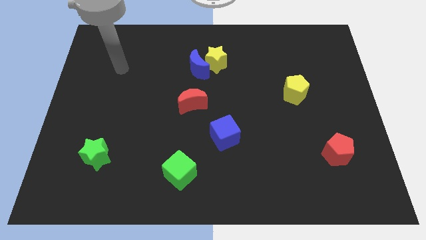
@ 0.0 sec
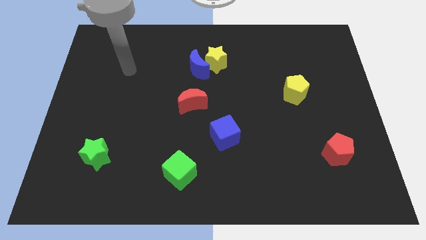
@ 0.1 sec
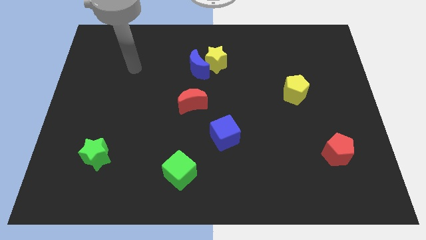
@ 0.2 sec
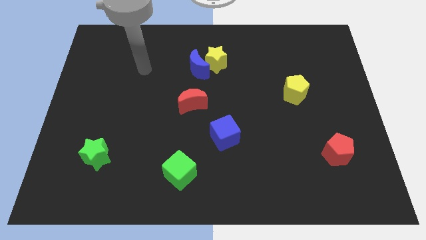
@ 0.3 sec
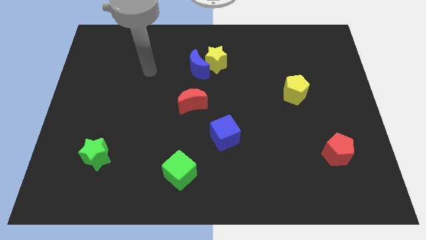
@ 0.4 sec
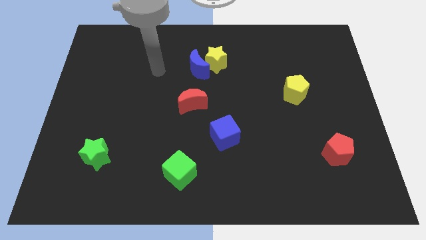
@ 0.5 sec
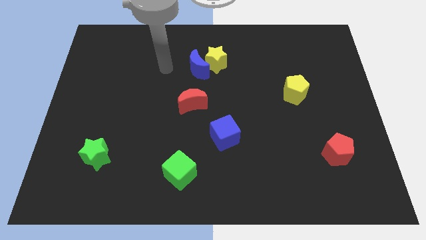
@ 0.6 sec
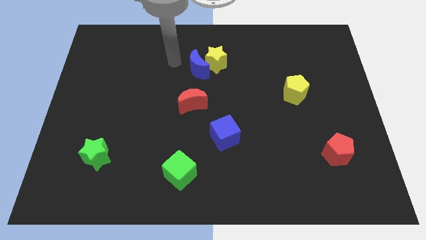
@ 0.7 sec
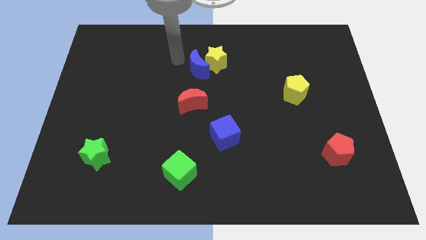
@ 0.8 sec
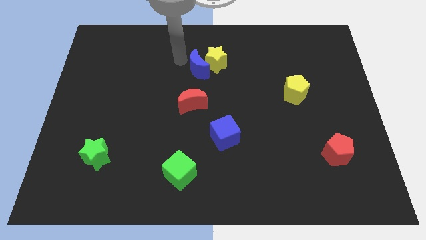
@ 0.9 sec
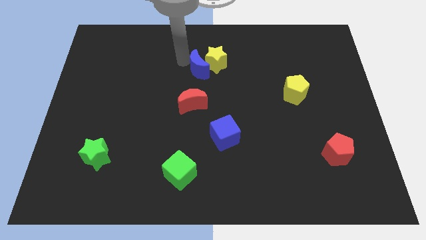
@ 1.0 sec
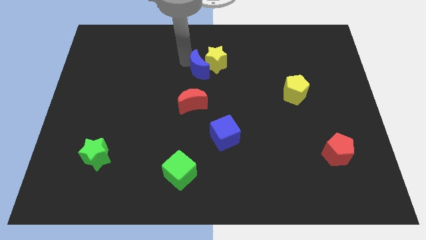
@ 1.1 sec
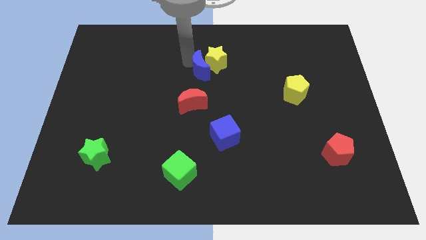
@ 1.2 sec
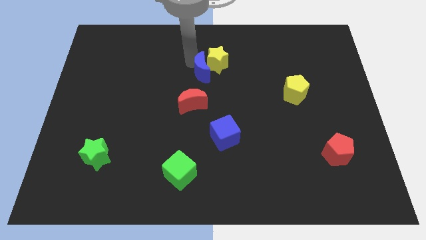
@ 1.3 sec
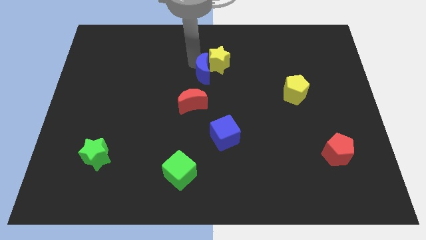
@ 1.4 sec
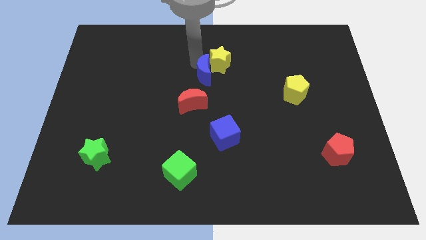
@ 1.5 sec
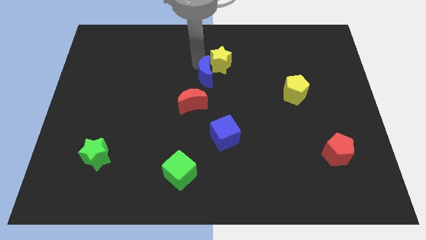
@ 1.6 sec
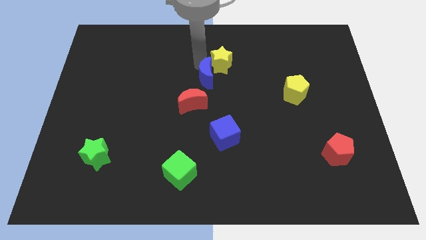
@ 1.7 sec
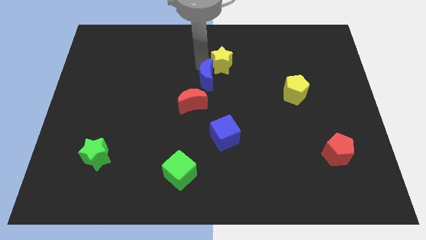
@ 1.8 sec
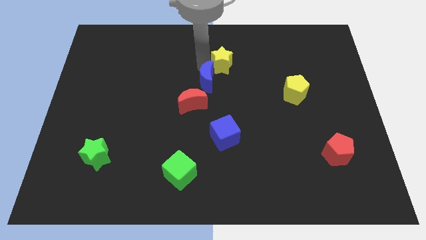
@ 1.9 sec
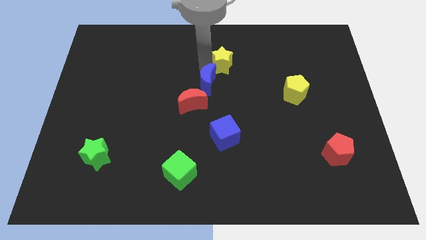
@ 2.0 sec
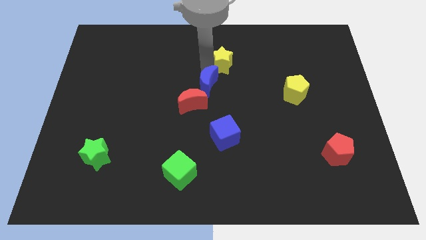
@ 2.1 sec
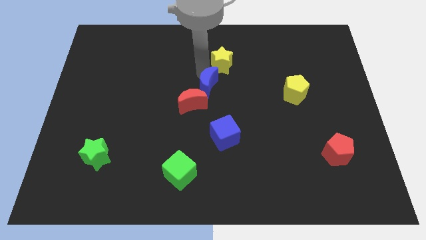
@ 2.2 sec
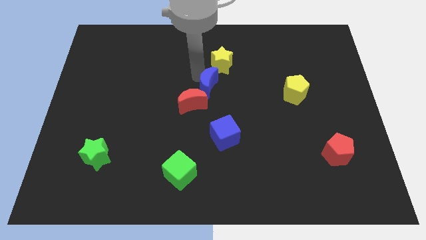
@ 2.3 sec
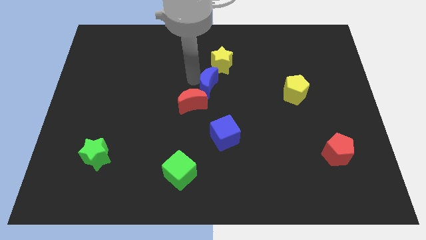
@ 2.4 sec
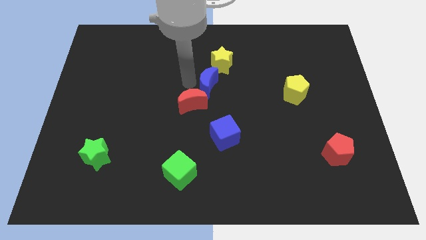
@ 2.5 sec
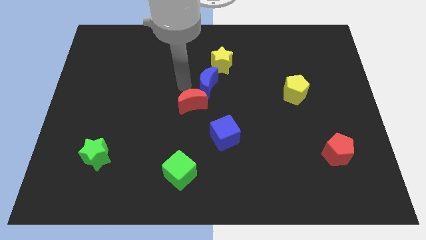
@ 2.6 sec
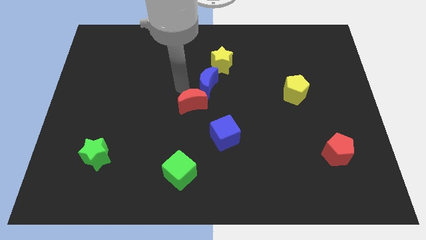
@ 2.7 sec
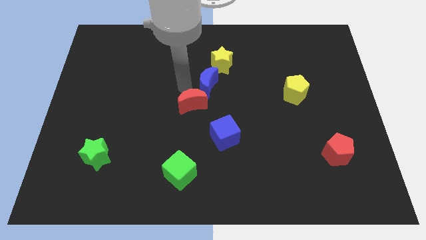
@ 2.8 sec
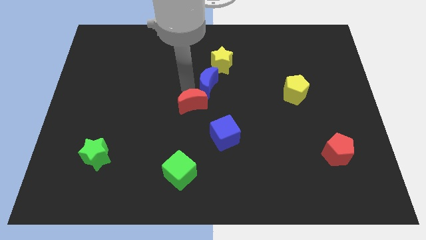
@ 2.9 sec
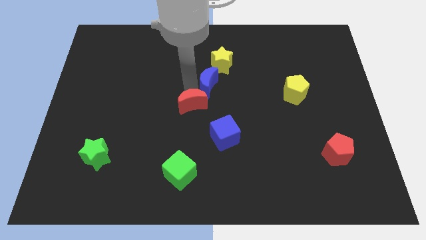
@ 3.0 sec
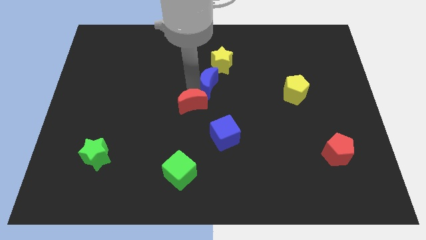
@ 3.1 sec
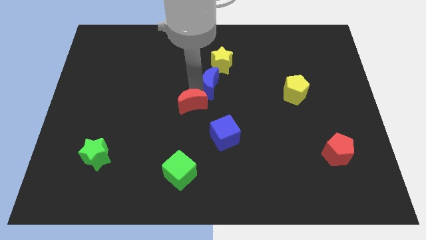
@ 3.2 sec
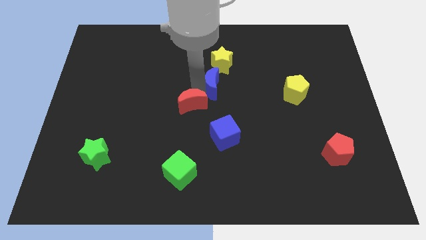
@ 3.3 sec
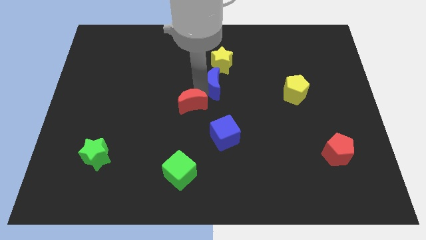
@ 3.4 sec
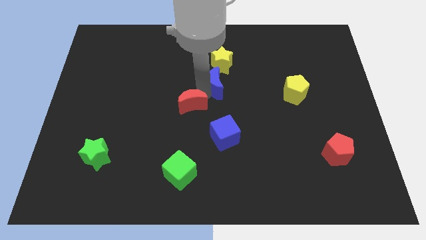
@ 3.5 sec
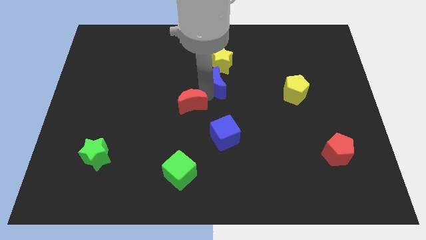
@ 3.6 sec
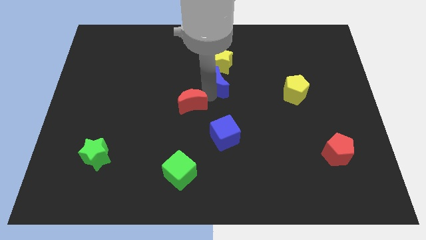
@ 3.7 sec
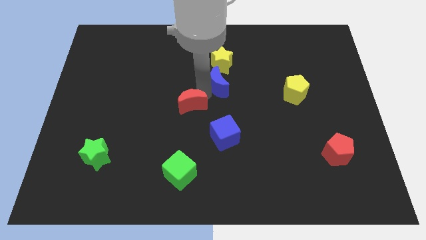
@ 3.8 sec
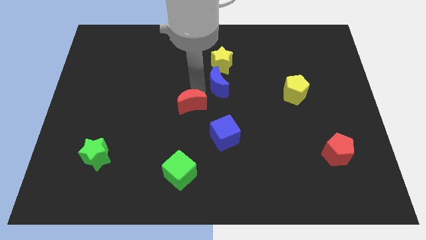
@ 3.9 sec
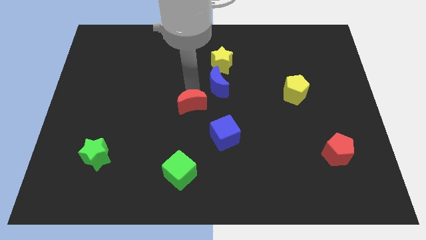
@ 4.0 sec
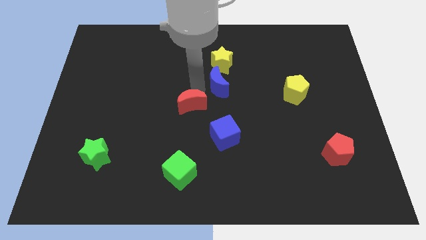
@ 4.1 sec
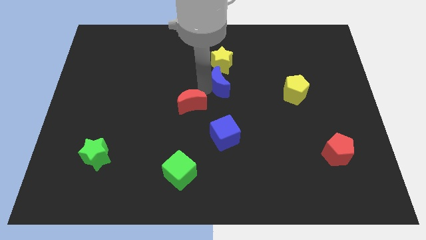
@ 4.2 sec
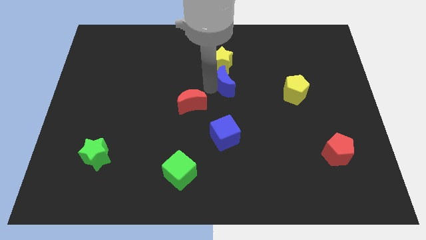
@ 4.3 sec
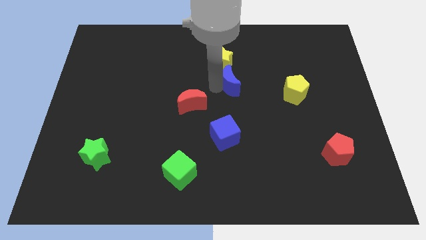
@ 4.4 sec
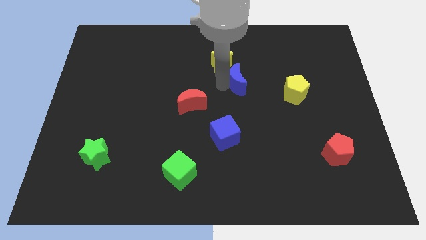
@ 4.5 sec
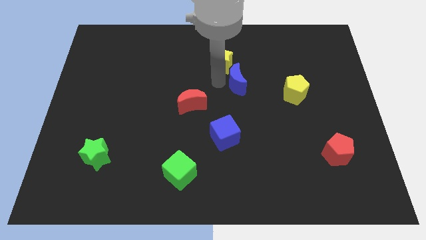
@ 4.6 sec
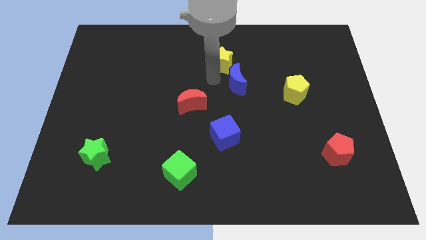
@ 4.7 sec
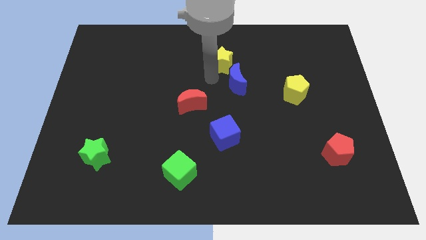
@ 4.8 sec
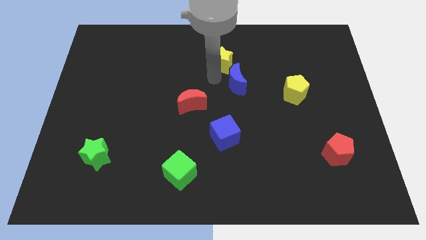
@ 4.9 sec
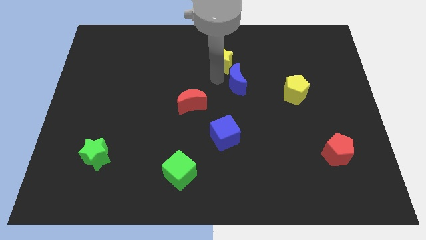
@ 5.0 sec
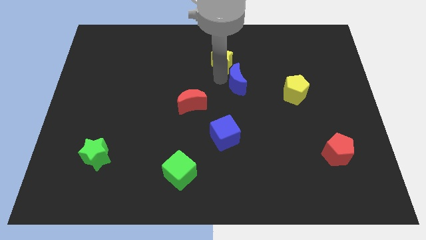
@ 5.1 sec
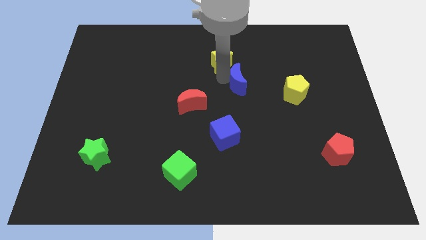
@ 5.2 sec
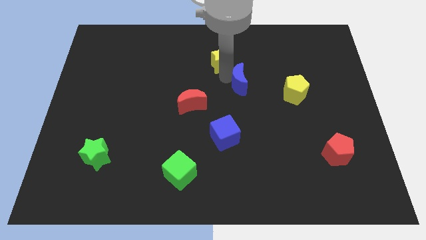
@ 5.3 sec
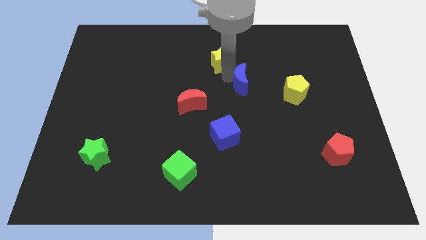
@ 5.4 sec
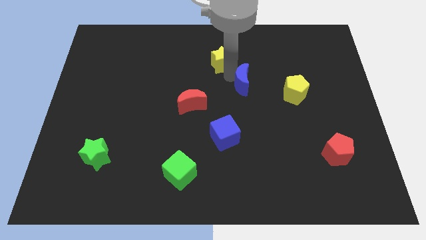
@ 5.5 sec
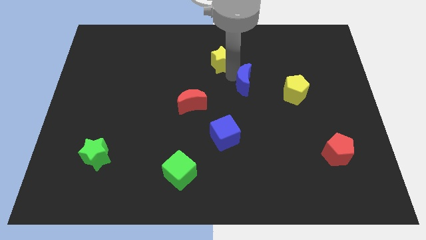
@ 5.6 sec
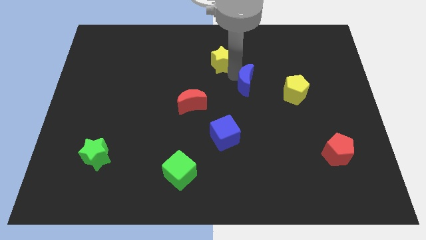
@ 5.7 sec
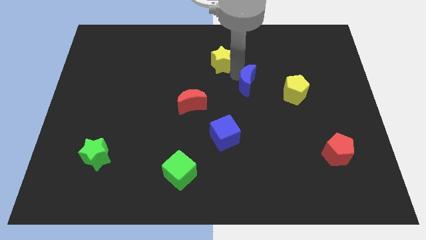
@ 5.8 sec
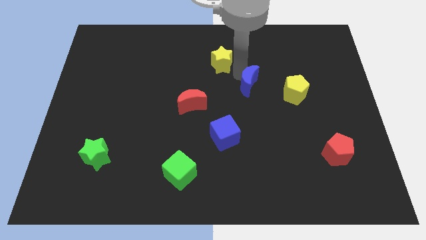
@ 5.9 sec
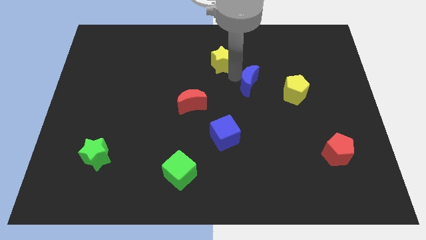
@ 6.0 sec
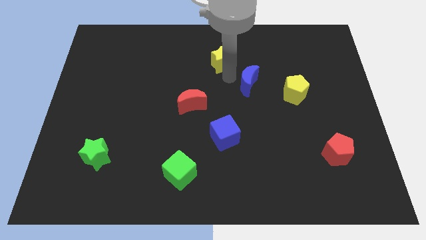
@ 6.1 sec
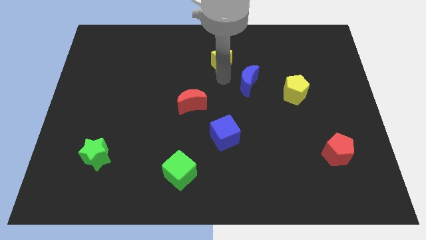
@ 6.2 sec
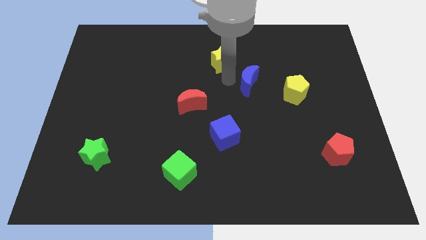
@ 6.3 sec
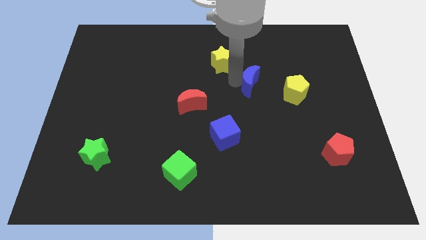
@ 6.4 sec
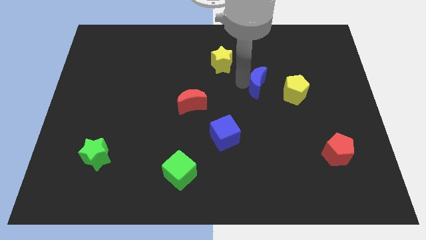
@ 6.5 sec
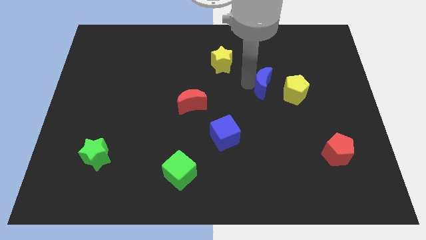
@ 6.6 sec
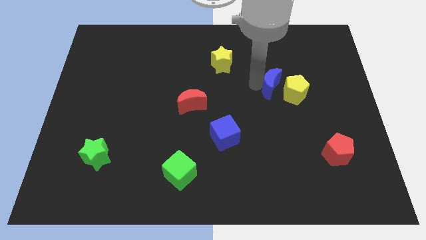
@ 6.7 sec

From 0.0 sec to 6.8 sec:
slide the blue moon towards the yellow pentagon

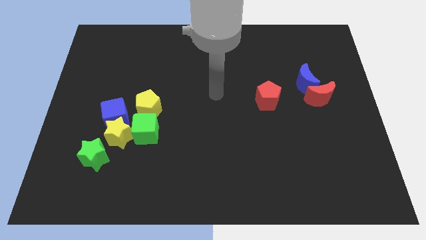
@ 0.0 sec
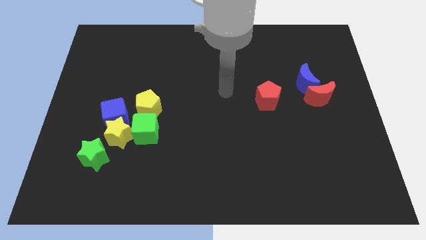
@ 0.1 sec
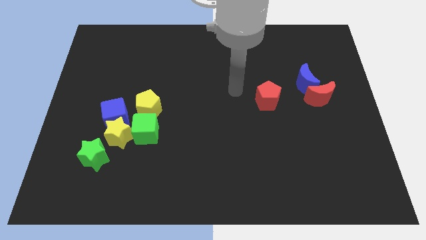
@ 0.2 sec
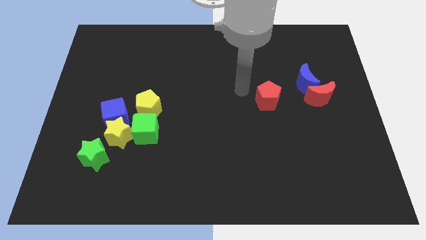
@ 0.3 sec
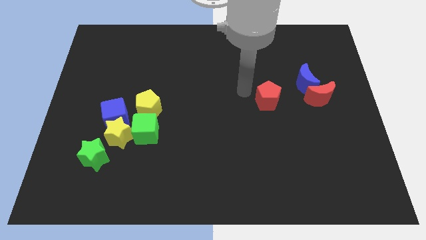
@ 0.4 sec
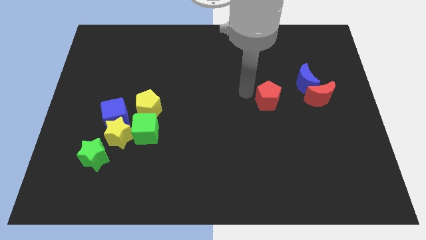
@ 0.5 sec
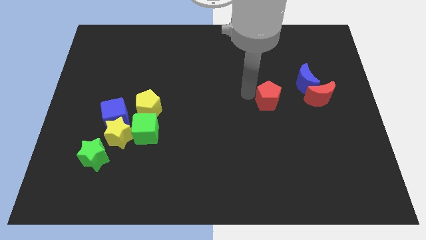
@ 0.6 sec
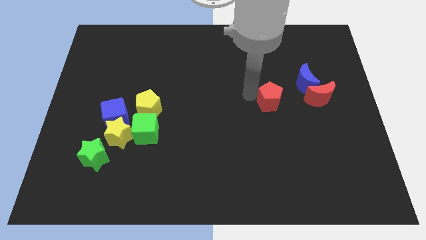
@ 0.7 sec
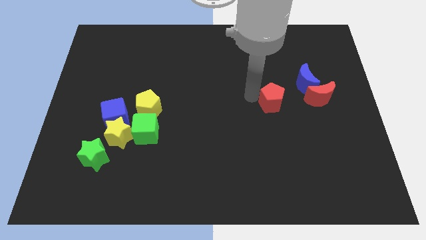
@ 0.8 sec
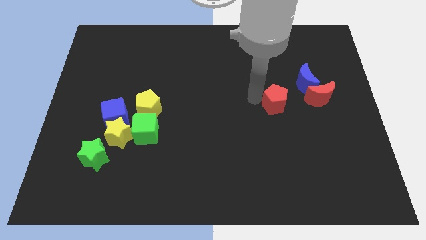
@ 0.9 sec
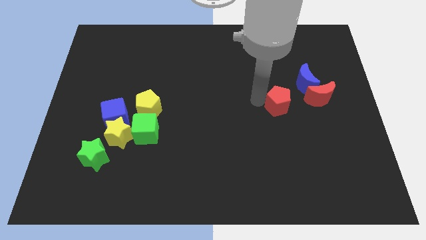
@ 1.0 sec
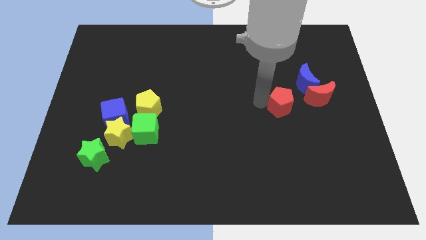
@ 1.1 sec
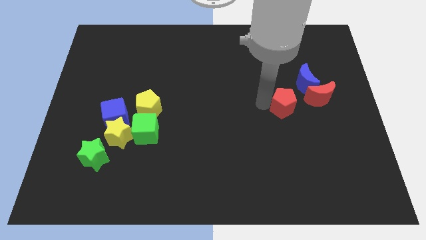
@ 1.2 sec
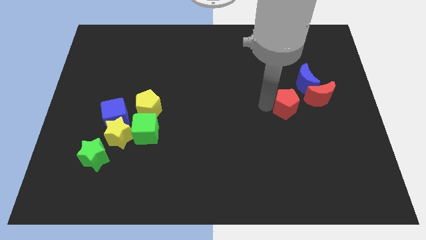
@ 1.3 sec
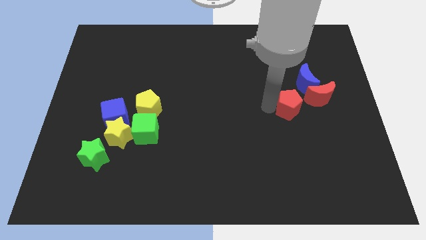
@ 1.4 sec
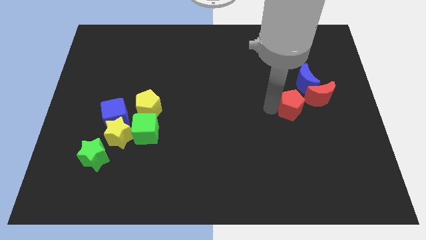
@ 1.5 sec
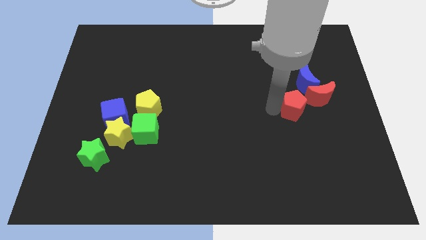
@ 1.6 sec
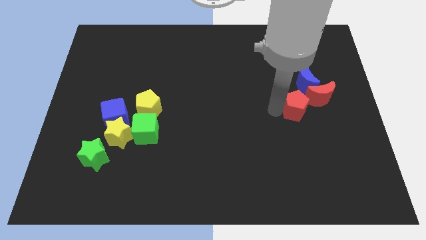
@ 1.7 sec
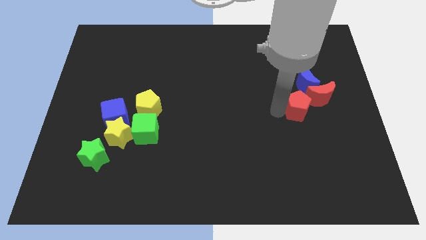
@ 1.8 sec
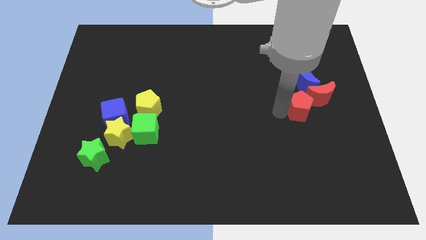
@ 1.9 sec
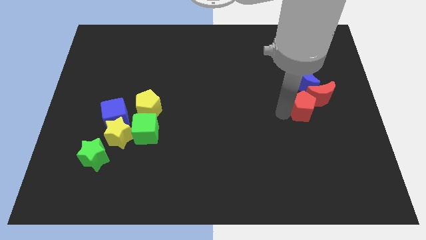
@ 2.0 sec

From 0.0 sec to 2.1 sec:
slide the red pentagon next to the red moon
